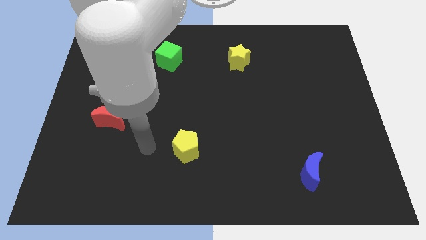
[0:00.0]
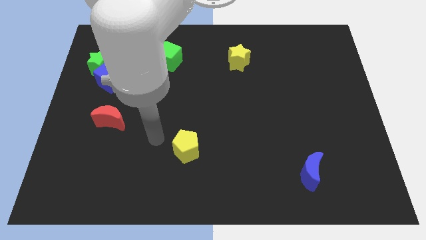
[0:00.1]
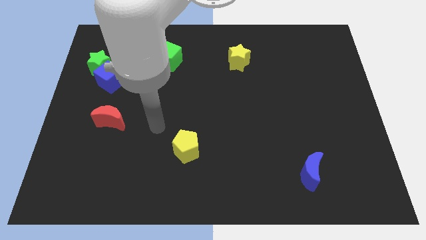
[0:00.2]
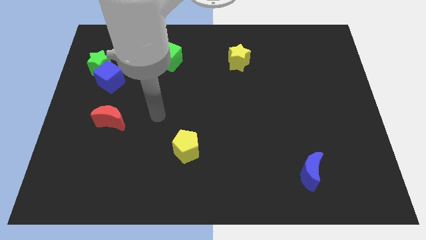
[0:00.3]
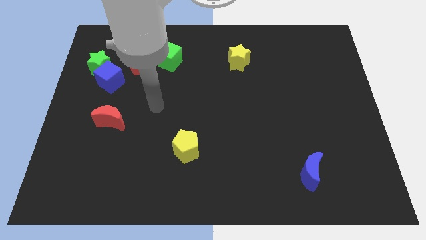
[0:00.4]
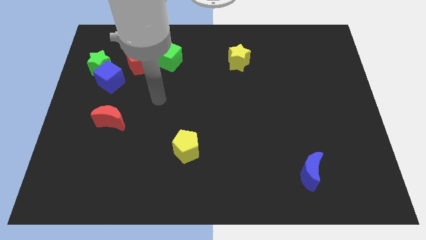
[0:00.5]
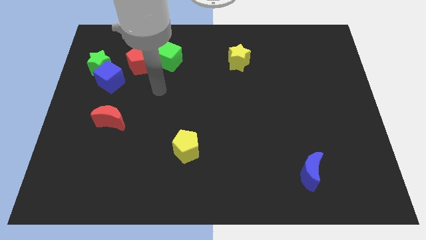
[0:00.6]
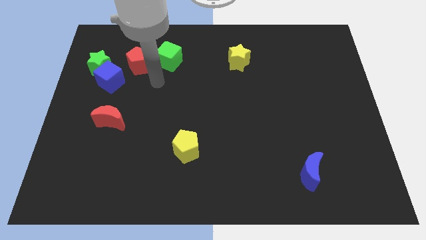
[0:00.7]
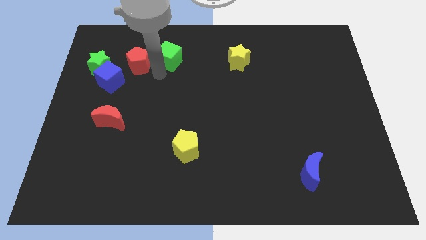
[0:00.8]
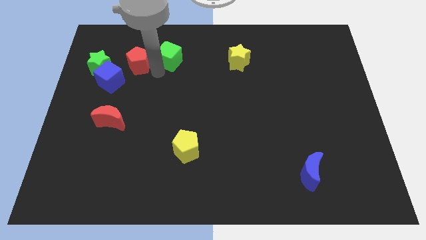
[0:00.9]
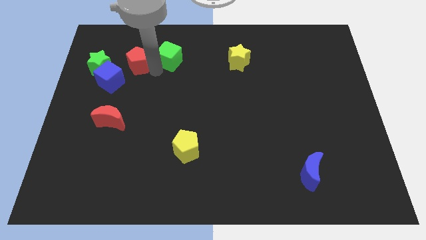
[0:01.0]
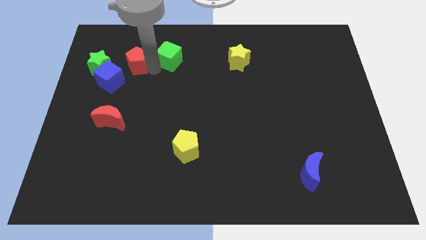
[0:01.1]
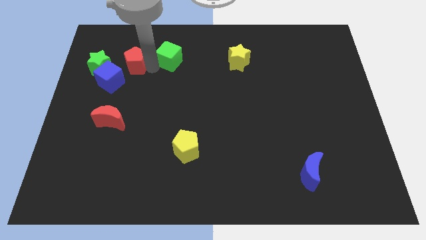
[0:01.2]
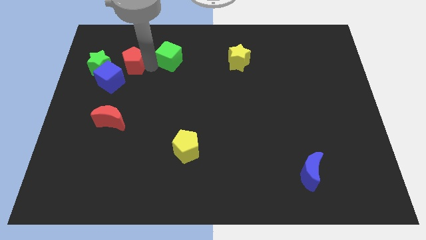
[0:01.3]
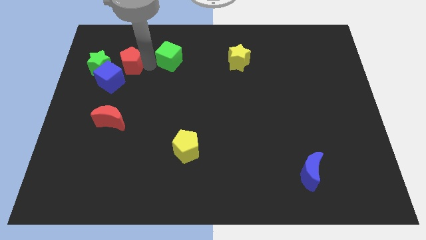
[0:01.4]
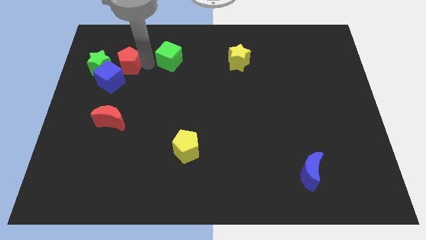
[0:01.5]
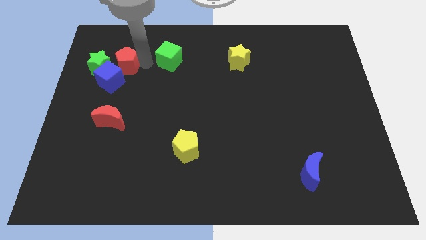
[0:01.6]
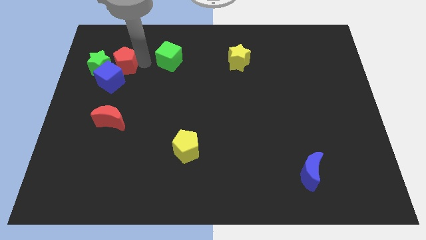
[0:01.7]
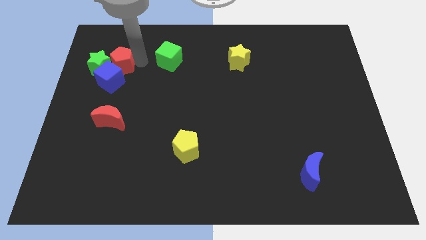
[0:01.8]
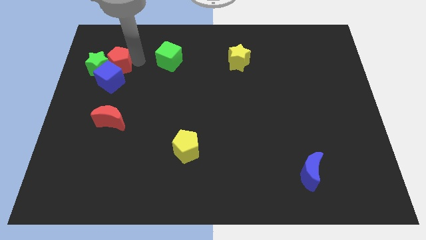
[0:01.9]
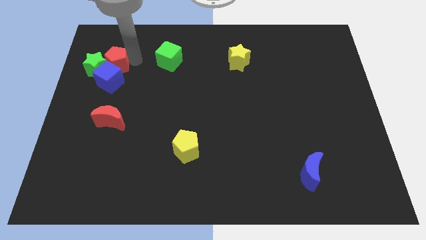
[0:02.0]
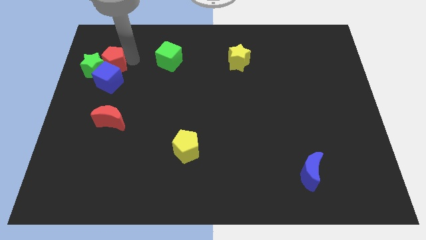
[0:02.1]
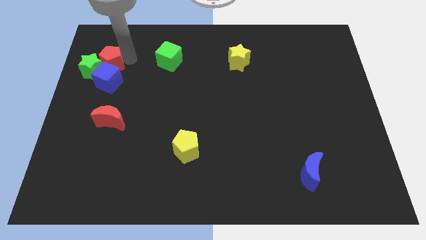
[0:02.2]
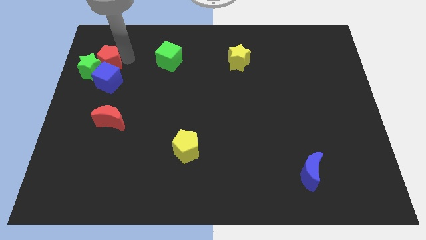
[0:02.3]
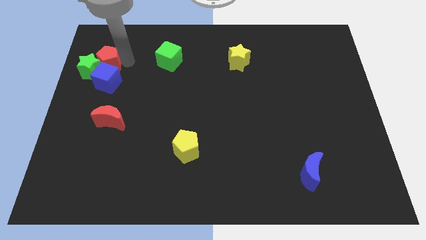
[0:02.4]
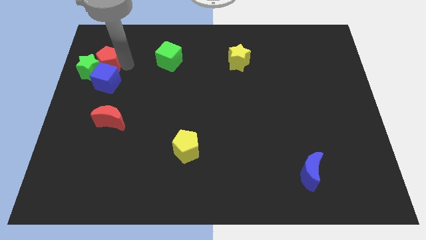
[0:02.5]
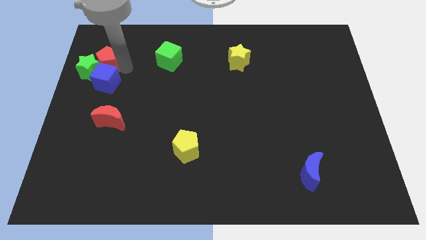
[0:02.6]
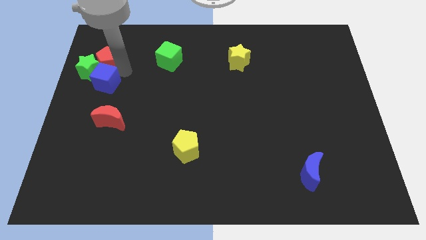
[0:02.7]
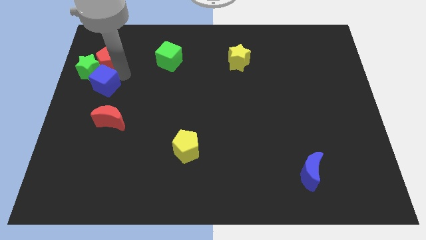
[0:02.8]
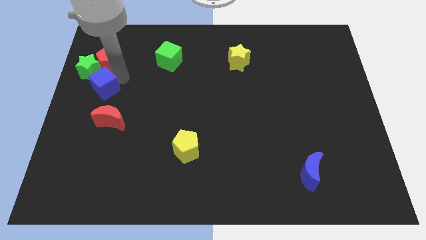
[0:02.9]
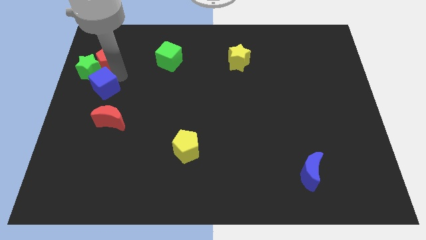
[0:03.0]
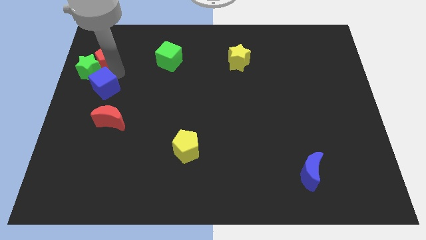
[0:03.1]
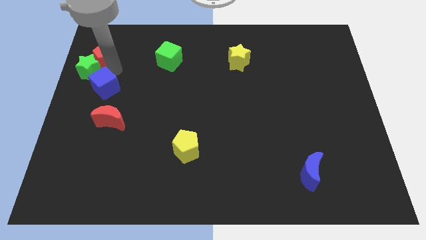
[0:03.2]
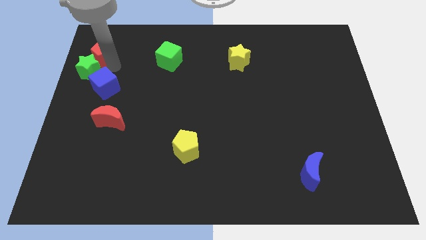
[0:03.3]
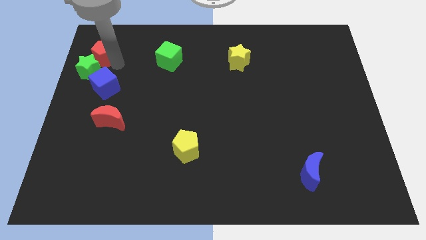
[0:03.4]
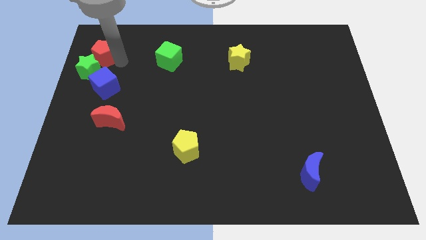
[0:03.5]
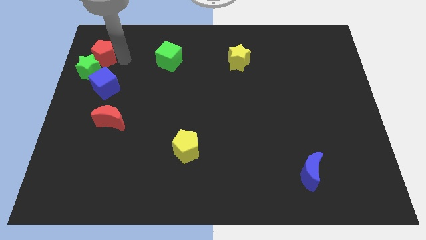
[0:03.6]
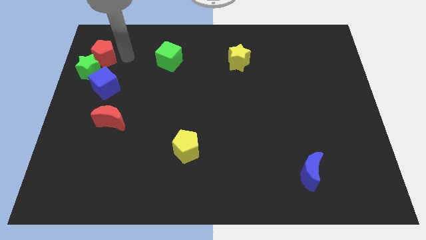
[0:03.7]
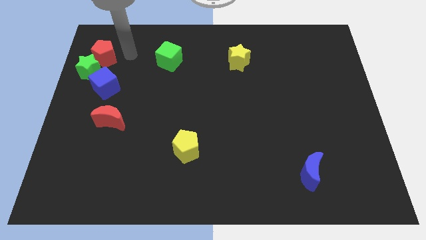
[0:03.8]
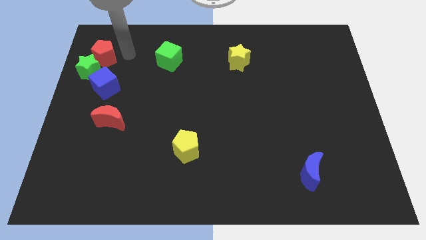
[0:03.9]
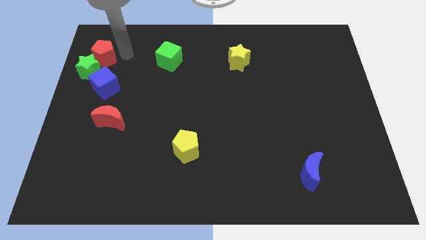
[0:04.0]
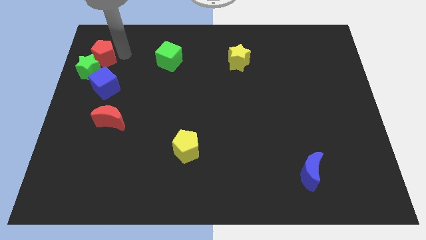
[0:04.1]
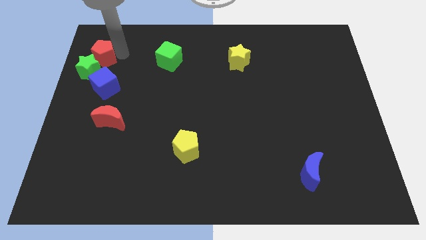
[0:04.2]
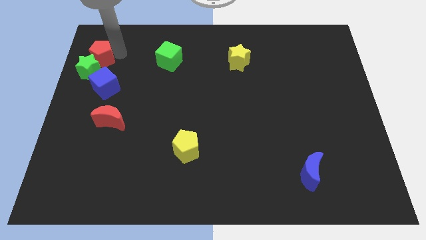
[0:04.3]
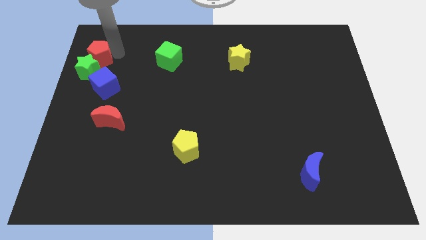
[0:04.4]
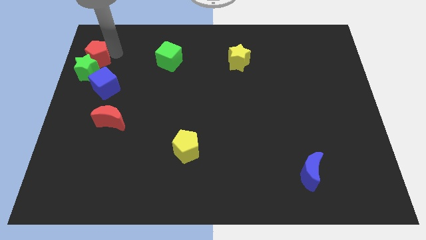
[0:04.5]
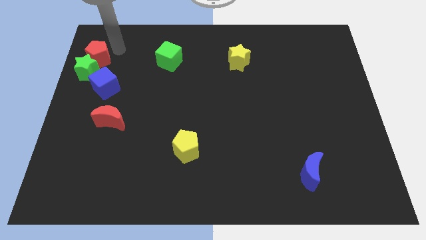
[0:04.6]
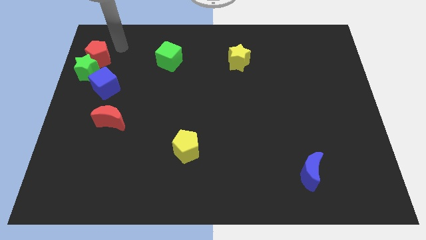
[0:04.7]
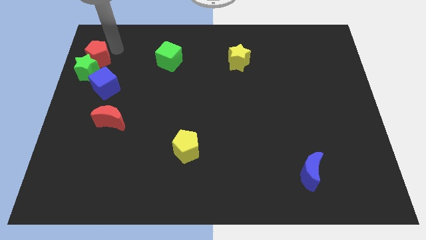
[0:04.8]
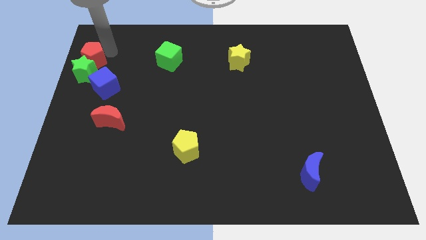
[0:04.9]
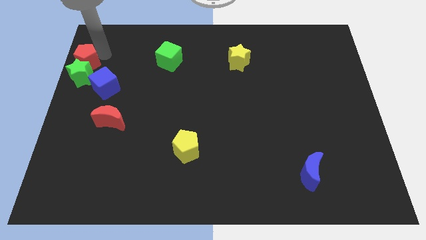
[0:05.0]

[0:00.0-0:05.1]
put the red pentagon to the left side

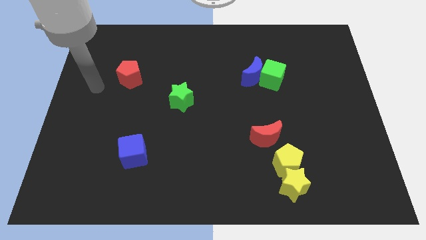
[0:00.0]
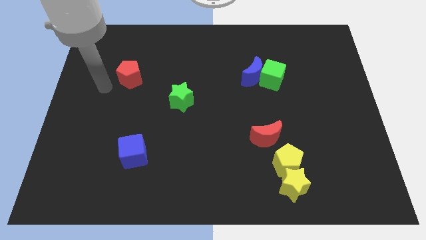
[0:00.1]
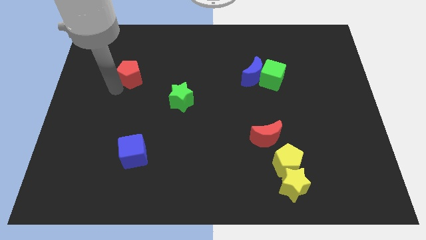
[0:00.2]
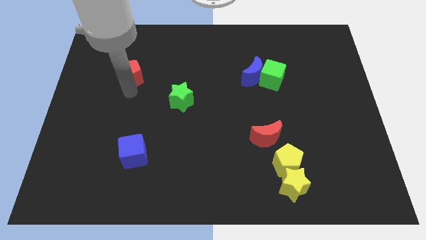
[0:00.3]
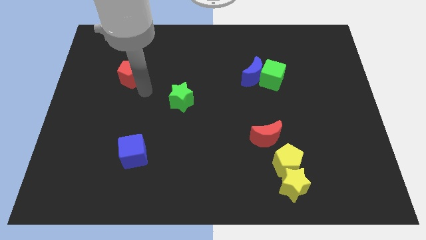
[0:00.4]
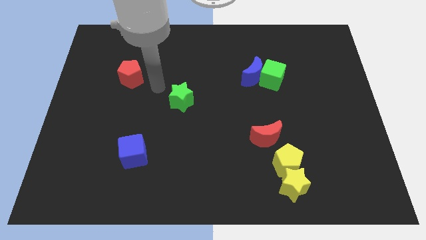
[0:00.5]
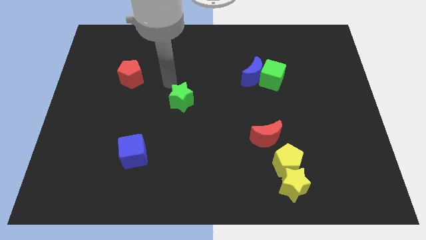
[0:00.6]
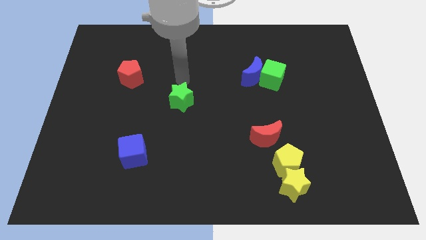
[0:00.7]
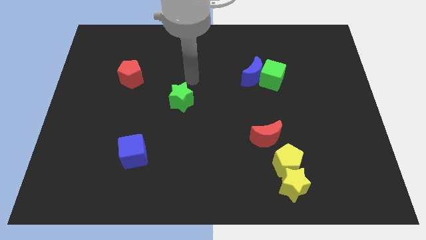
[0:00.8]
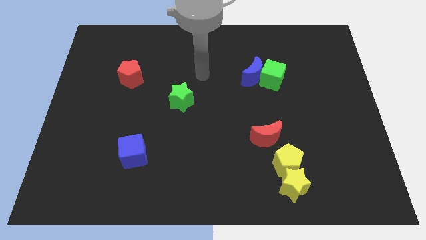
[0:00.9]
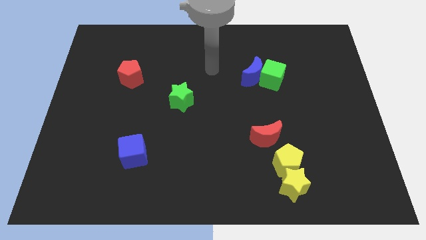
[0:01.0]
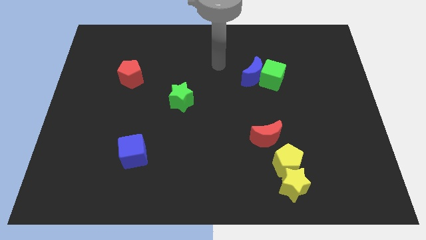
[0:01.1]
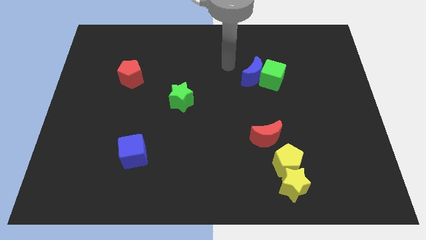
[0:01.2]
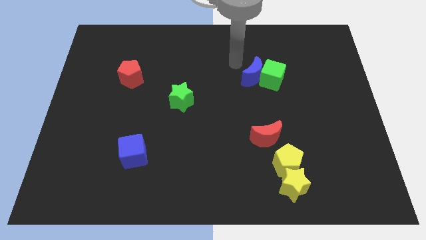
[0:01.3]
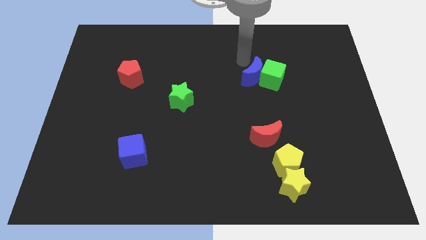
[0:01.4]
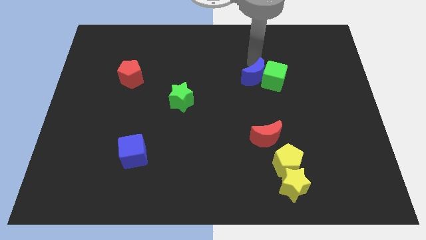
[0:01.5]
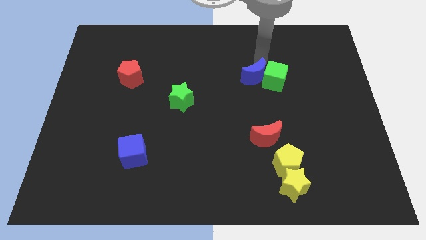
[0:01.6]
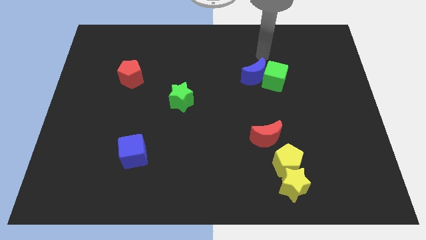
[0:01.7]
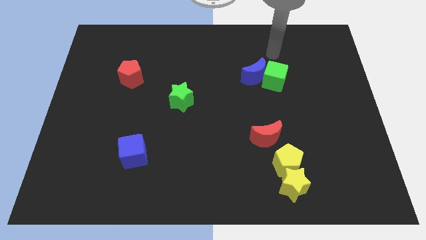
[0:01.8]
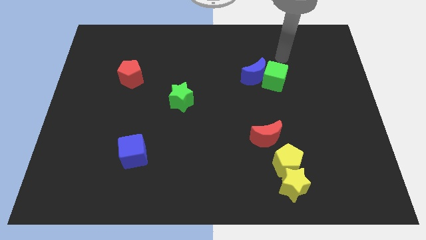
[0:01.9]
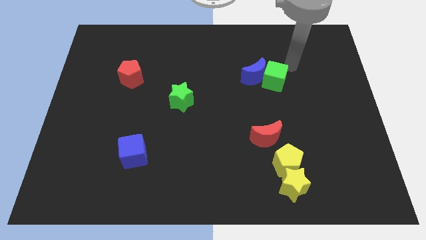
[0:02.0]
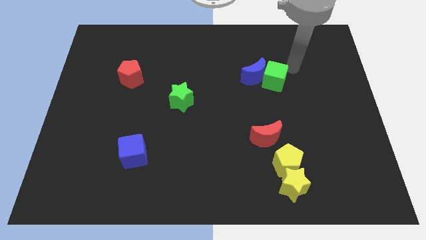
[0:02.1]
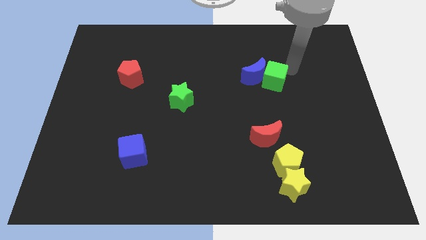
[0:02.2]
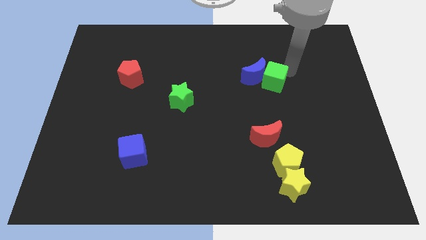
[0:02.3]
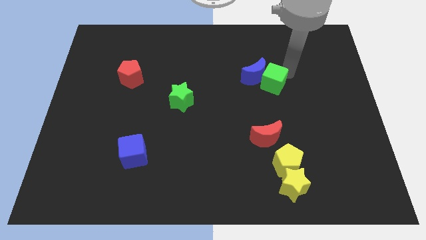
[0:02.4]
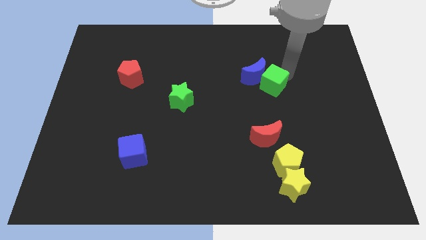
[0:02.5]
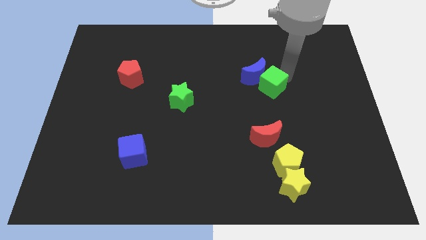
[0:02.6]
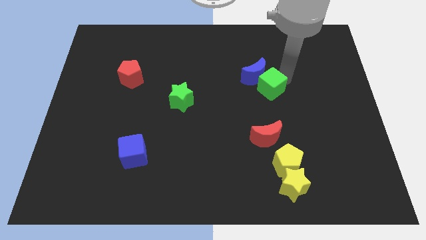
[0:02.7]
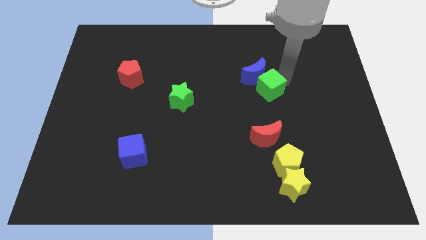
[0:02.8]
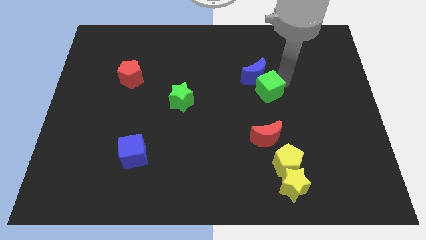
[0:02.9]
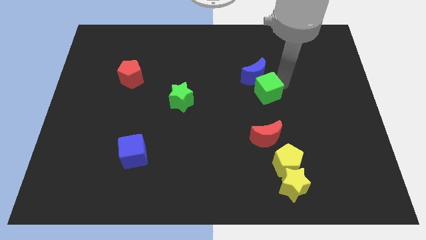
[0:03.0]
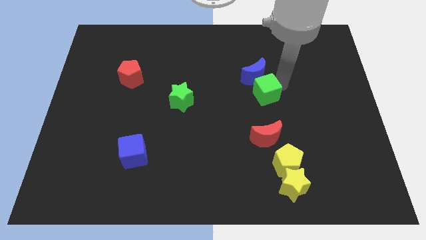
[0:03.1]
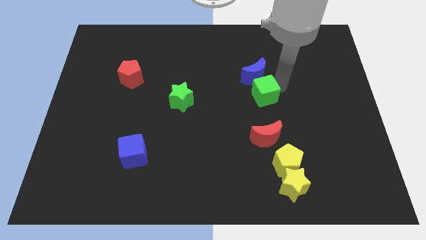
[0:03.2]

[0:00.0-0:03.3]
push the green cube to the center
